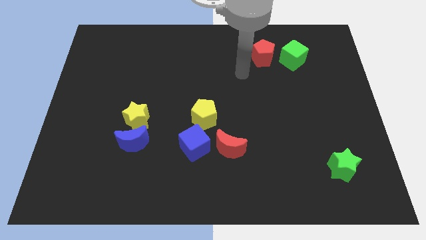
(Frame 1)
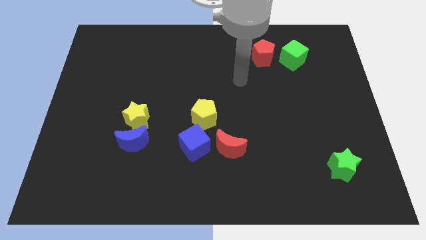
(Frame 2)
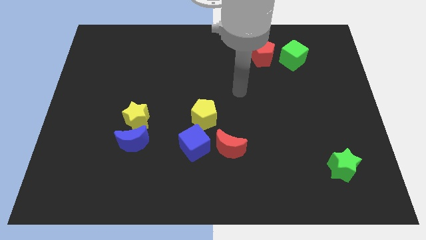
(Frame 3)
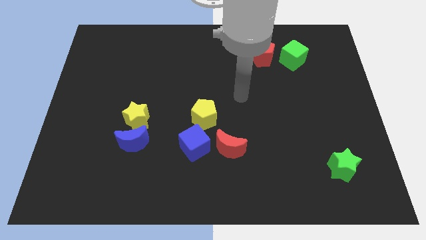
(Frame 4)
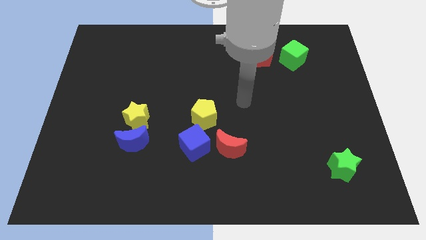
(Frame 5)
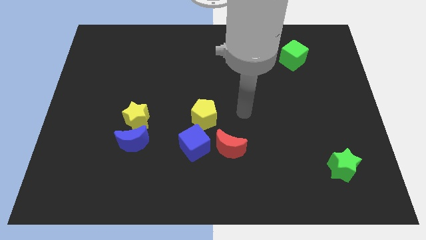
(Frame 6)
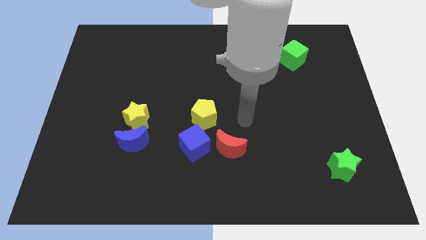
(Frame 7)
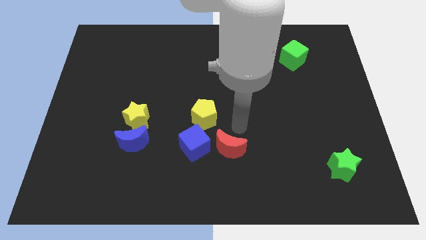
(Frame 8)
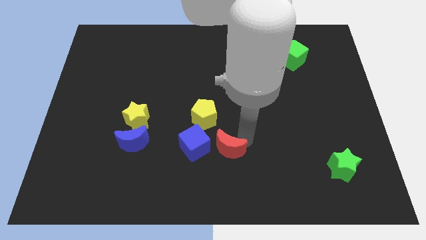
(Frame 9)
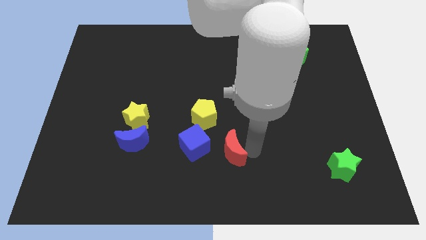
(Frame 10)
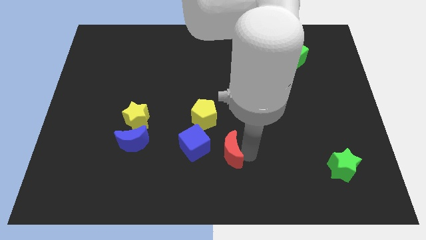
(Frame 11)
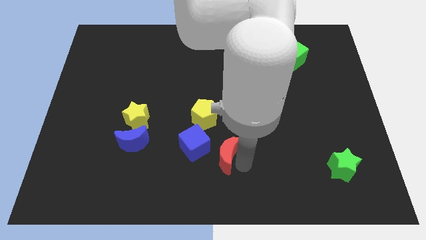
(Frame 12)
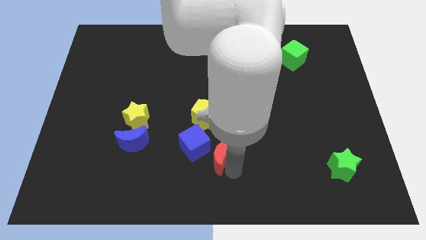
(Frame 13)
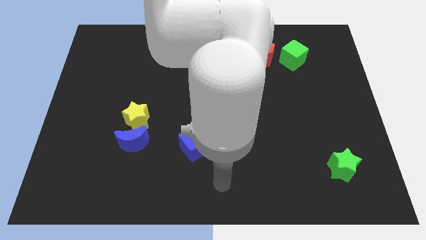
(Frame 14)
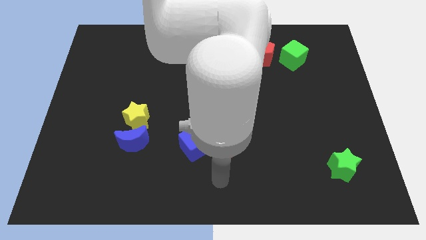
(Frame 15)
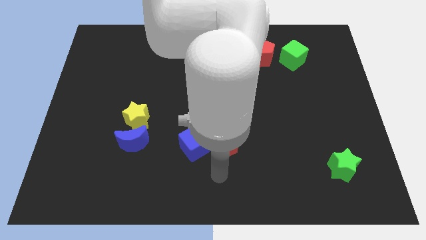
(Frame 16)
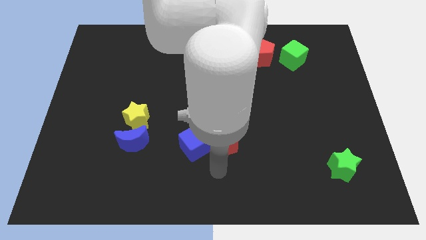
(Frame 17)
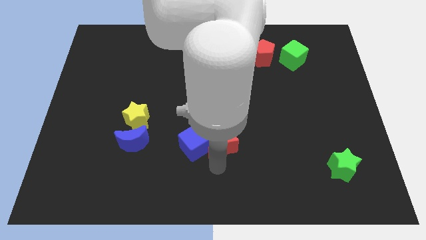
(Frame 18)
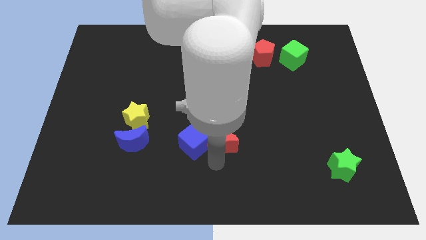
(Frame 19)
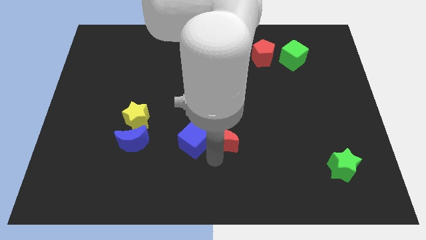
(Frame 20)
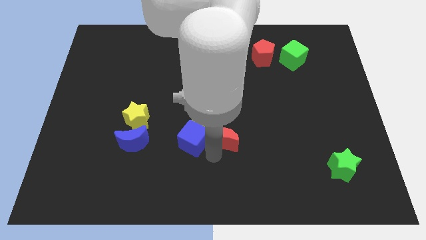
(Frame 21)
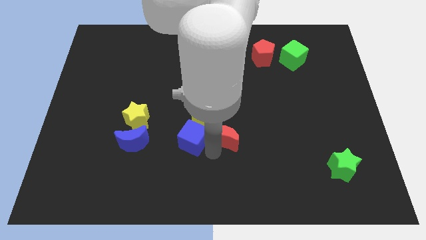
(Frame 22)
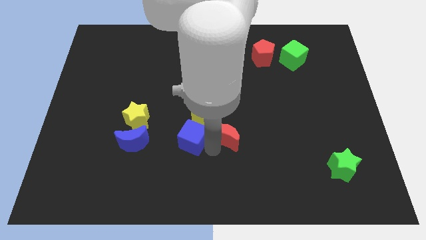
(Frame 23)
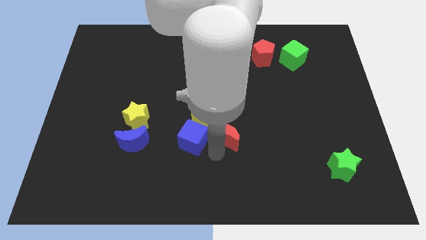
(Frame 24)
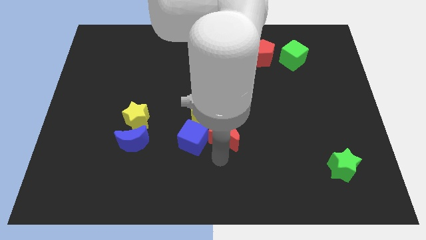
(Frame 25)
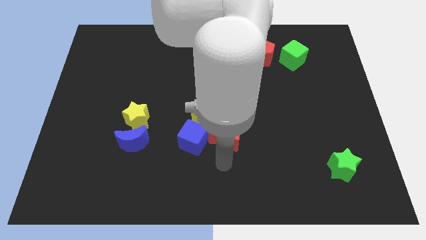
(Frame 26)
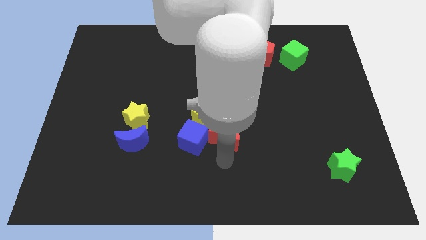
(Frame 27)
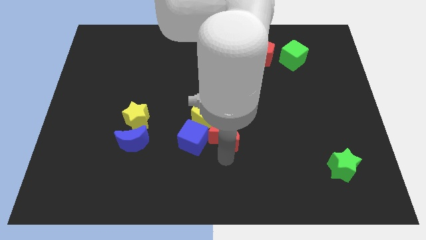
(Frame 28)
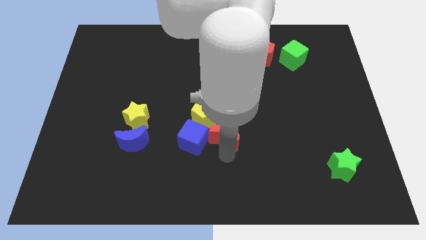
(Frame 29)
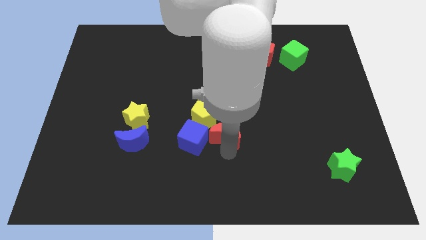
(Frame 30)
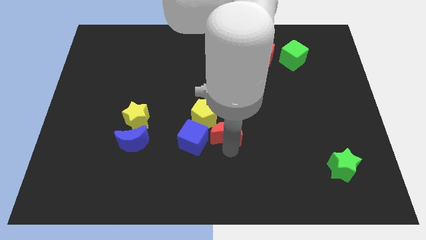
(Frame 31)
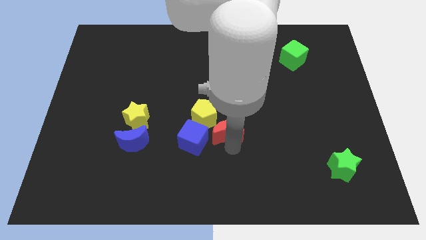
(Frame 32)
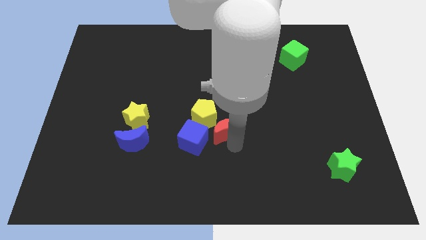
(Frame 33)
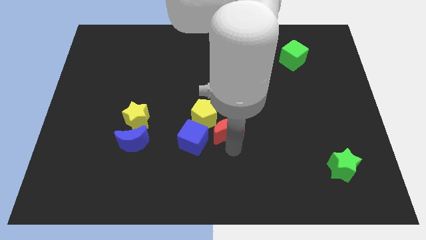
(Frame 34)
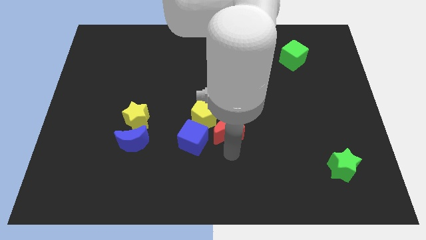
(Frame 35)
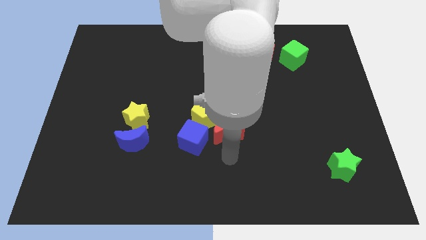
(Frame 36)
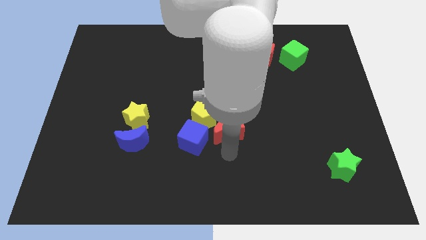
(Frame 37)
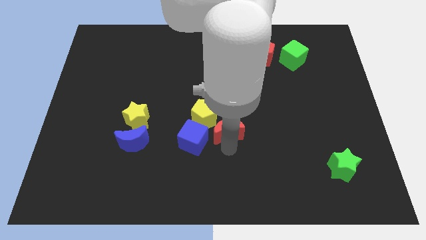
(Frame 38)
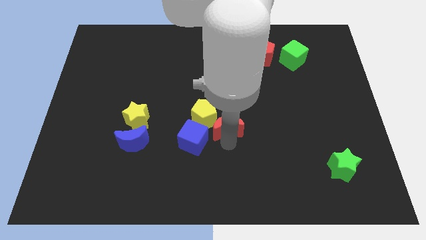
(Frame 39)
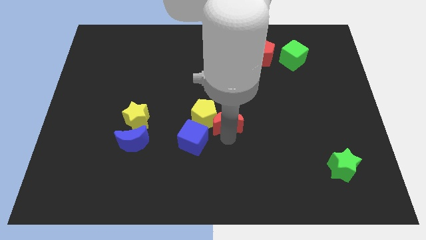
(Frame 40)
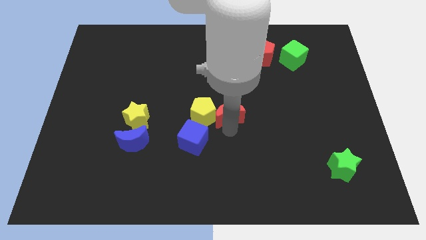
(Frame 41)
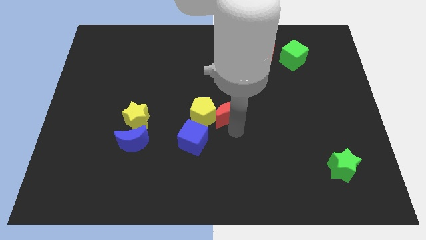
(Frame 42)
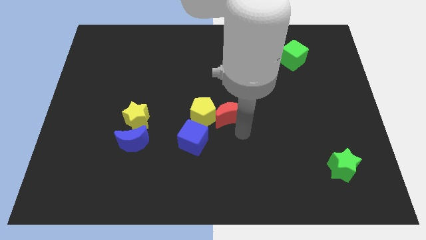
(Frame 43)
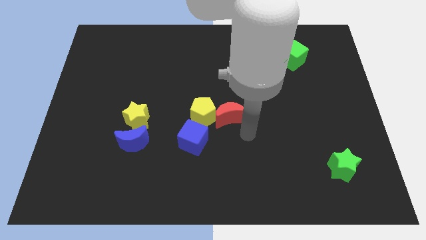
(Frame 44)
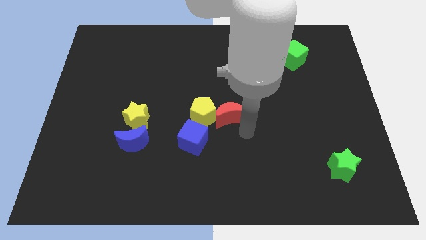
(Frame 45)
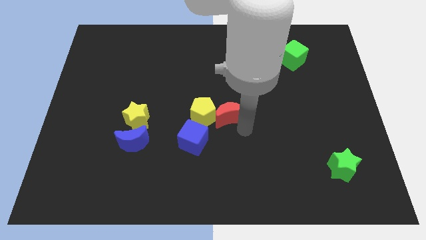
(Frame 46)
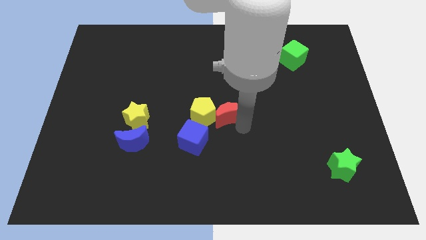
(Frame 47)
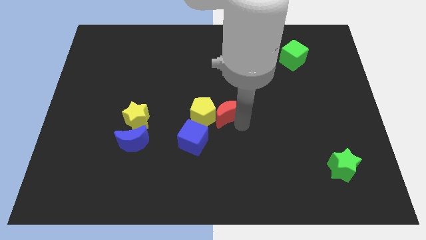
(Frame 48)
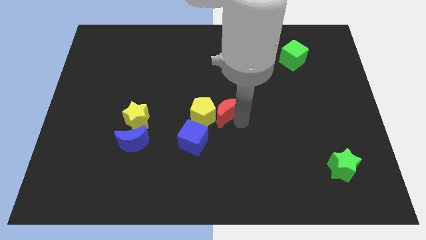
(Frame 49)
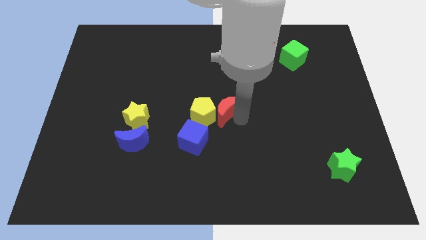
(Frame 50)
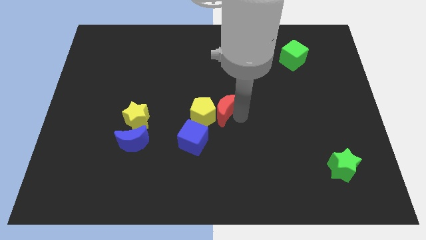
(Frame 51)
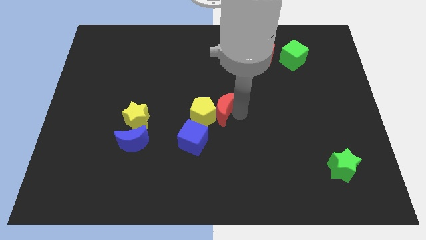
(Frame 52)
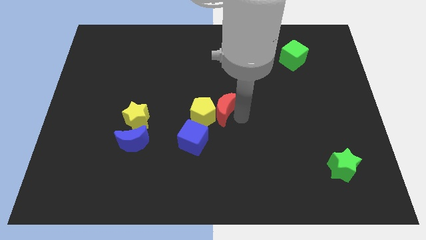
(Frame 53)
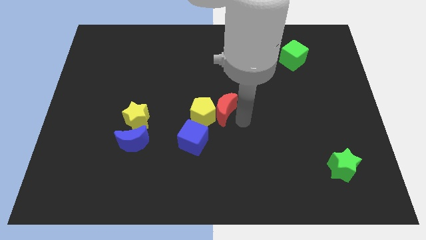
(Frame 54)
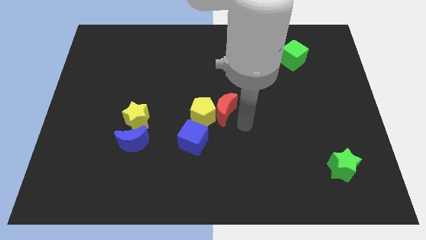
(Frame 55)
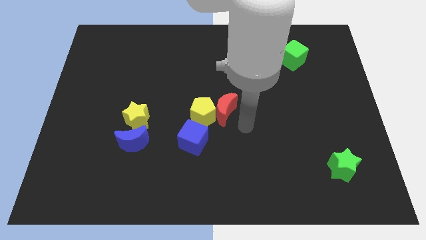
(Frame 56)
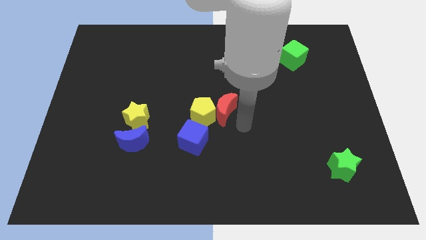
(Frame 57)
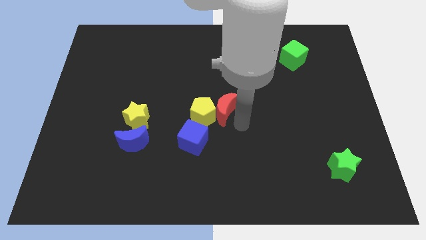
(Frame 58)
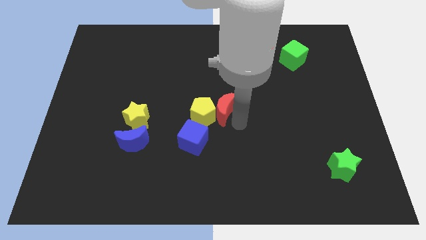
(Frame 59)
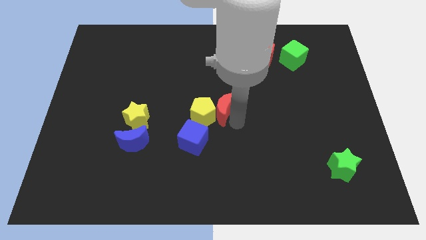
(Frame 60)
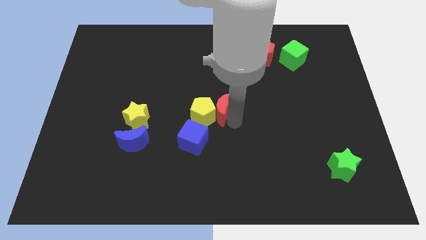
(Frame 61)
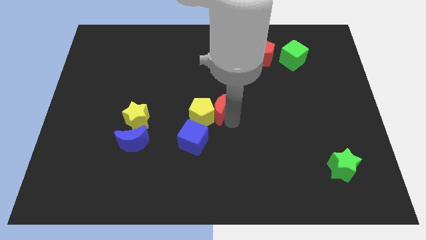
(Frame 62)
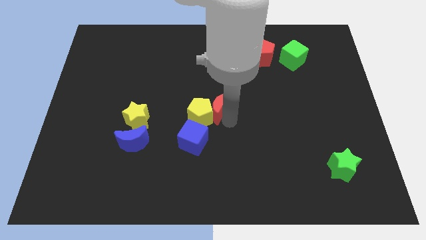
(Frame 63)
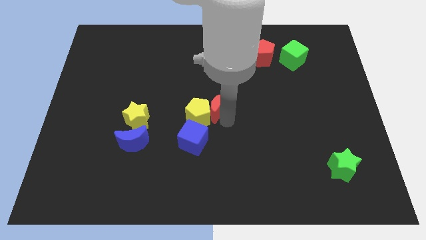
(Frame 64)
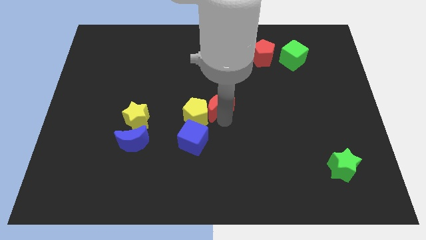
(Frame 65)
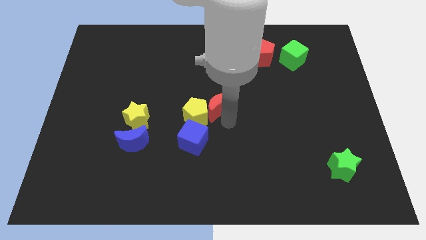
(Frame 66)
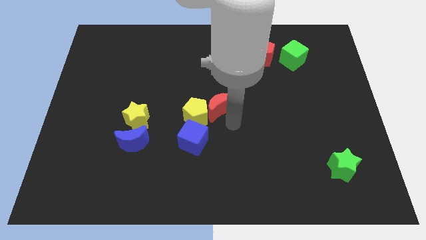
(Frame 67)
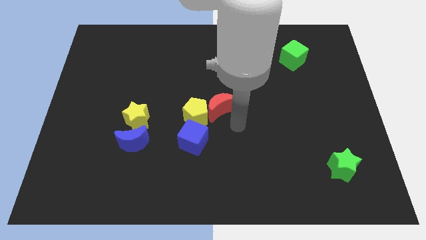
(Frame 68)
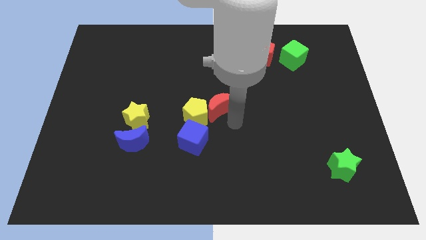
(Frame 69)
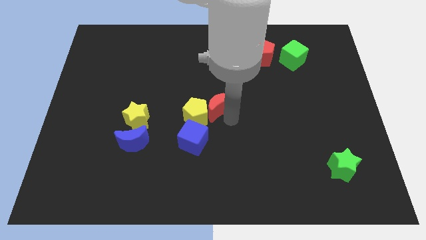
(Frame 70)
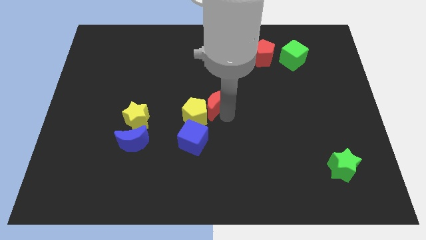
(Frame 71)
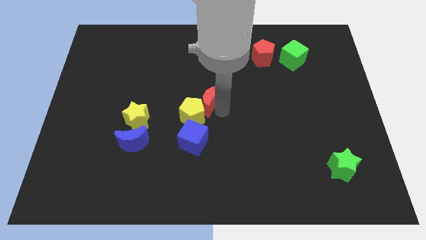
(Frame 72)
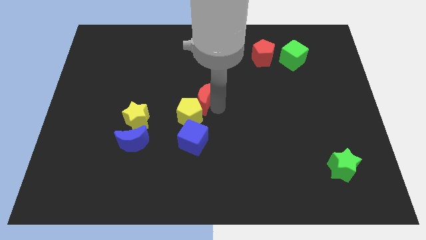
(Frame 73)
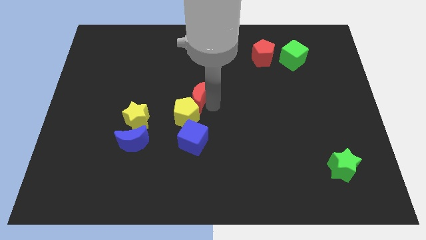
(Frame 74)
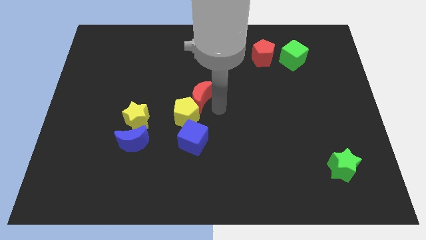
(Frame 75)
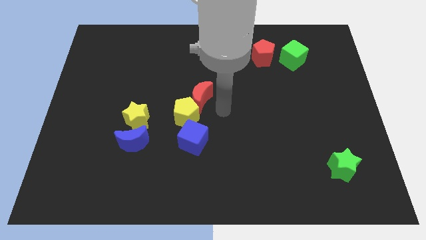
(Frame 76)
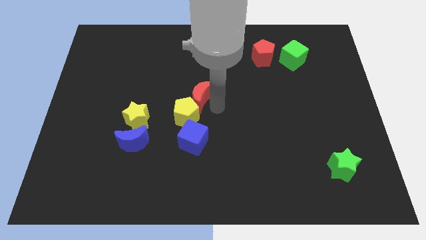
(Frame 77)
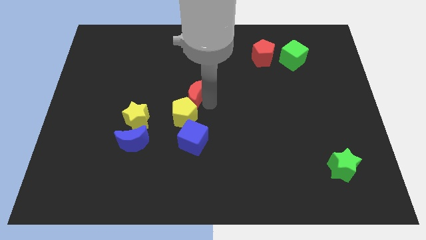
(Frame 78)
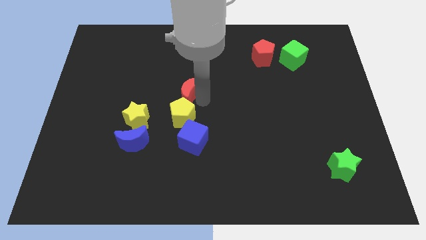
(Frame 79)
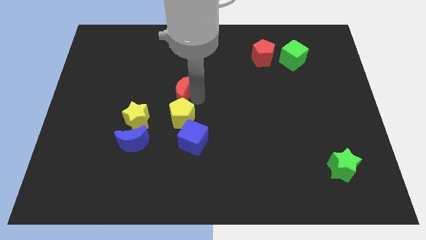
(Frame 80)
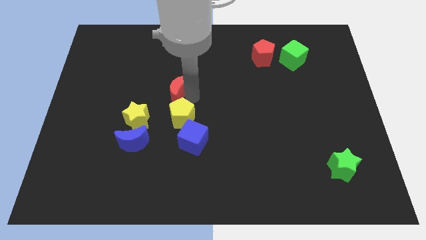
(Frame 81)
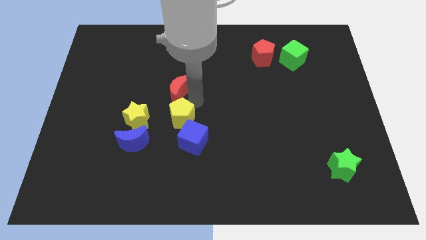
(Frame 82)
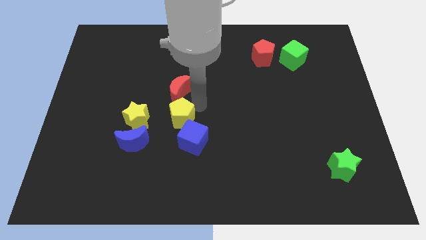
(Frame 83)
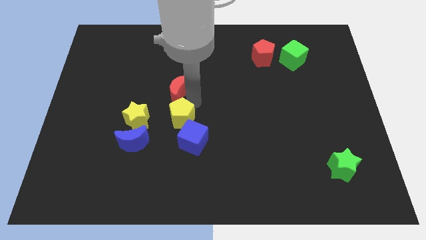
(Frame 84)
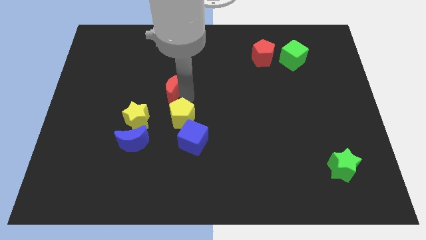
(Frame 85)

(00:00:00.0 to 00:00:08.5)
slide the red moon up and to the left
